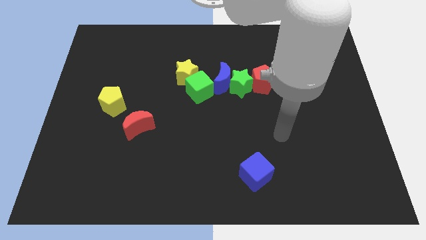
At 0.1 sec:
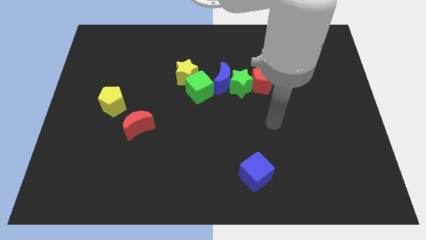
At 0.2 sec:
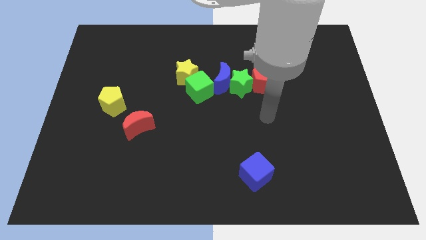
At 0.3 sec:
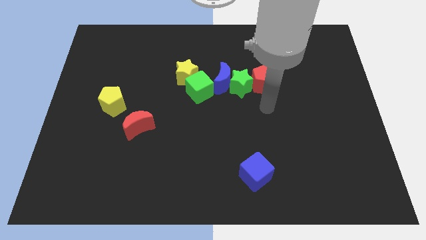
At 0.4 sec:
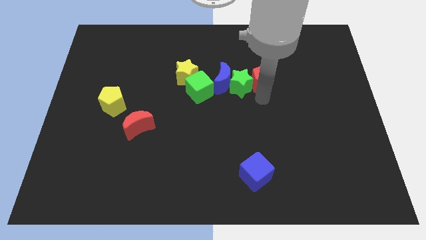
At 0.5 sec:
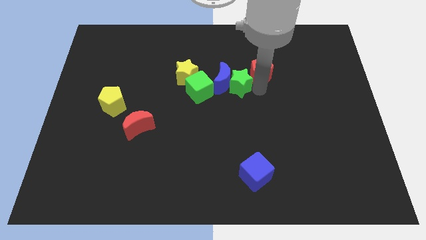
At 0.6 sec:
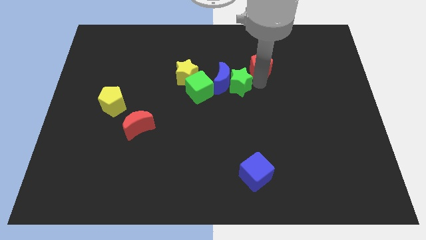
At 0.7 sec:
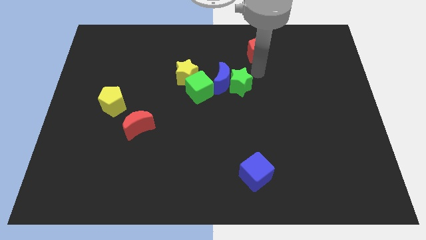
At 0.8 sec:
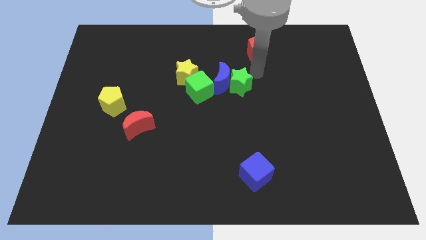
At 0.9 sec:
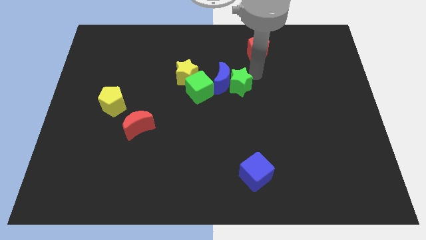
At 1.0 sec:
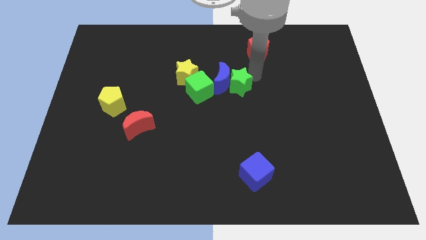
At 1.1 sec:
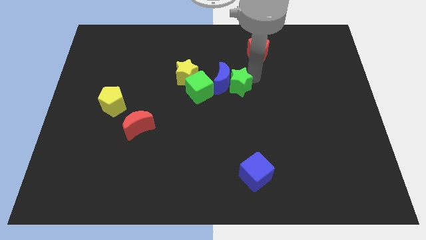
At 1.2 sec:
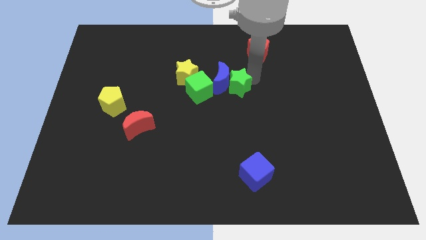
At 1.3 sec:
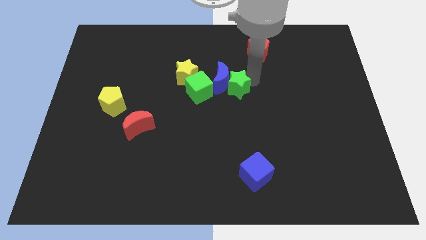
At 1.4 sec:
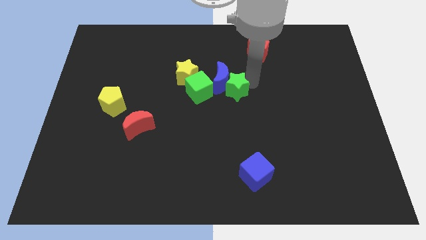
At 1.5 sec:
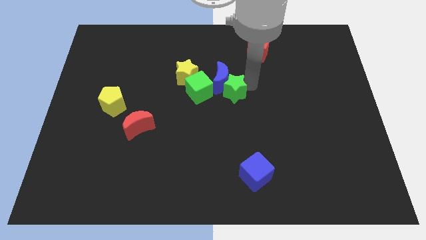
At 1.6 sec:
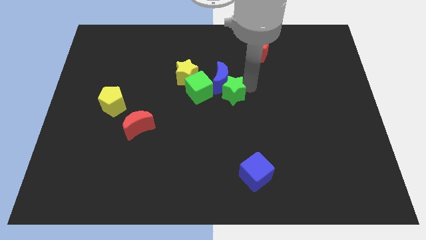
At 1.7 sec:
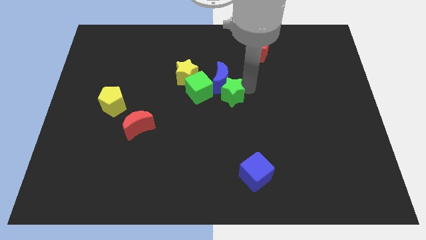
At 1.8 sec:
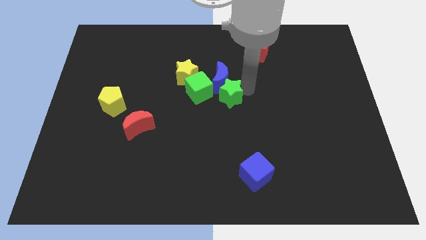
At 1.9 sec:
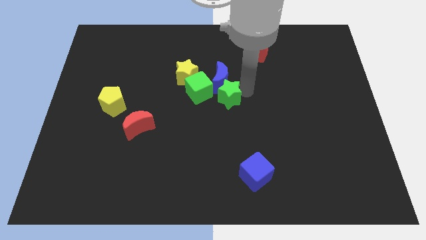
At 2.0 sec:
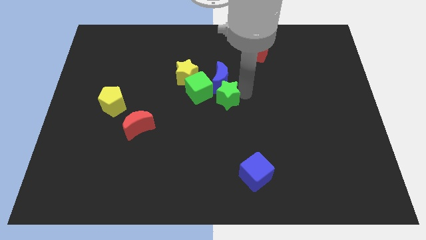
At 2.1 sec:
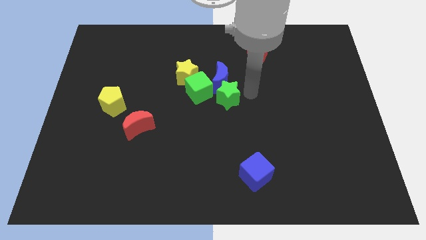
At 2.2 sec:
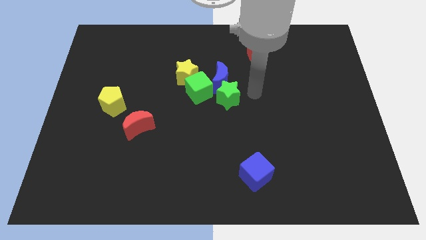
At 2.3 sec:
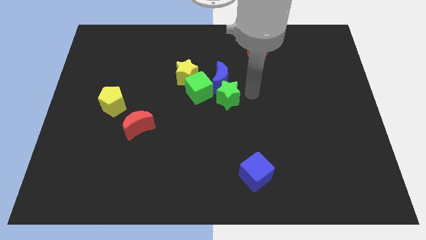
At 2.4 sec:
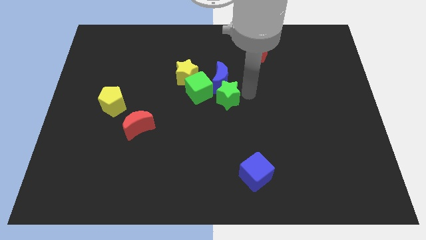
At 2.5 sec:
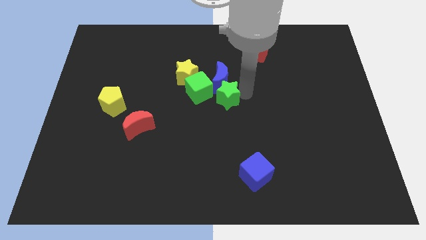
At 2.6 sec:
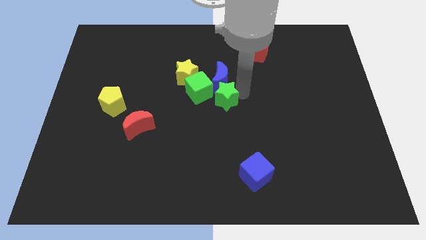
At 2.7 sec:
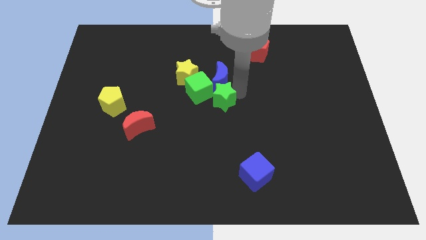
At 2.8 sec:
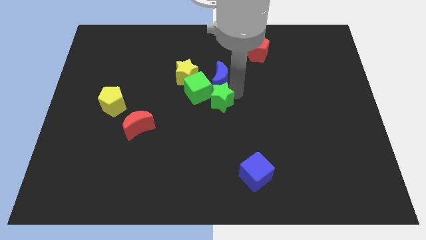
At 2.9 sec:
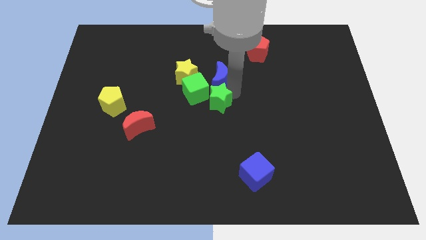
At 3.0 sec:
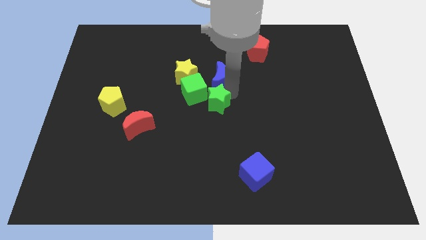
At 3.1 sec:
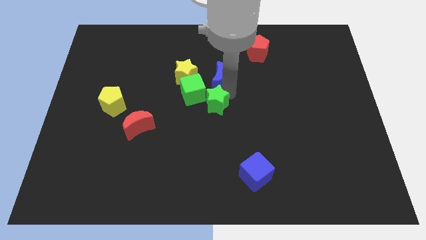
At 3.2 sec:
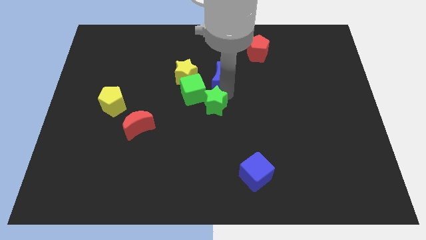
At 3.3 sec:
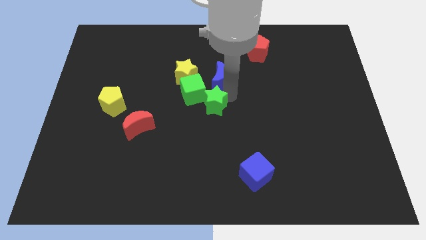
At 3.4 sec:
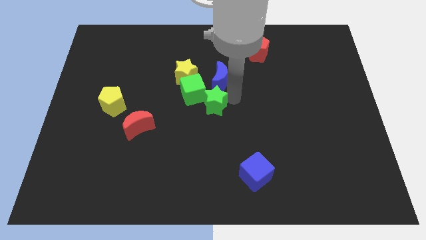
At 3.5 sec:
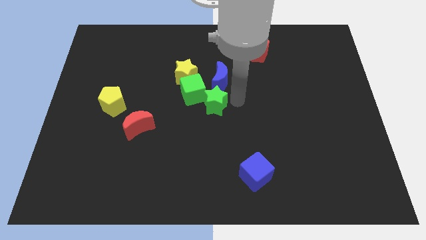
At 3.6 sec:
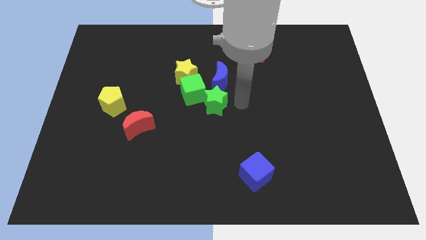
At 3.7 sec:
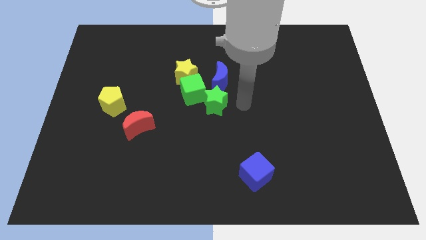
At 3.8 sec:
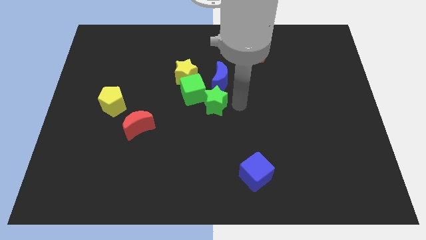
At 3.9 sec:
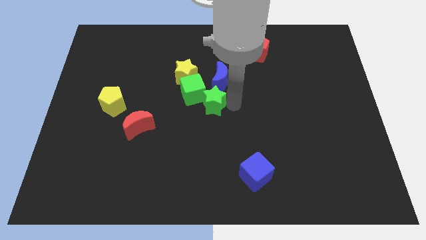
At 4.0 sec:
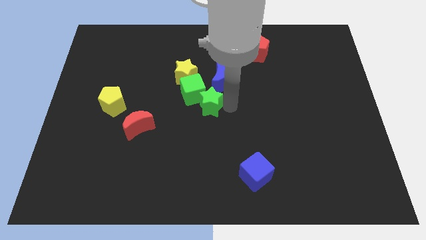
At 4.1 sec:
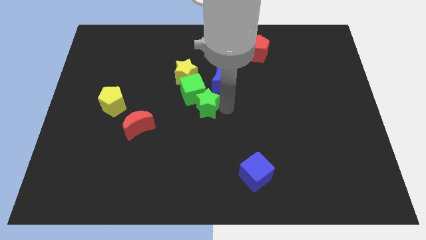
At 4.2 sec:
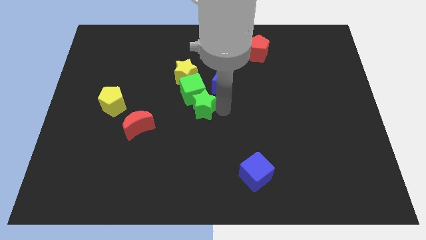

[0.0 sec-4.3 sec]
slightly move the green star left

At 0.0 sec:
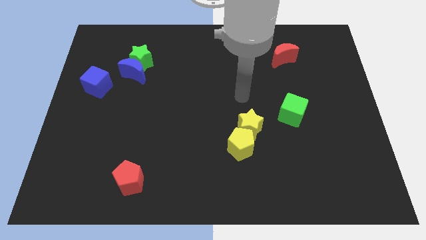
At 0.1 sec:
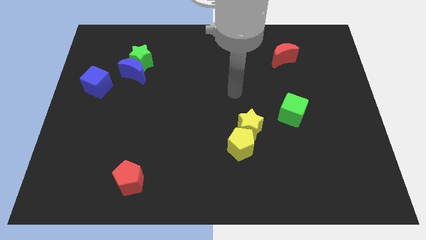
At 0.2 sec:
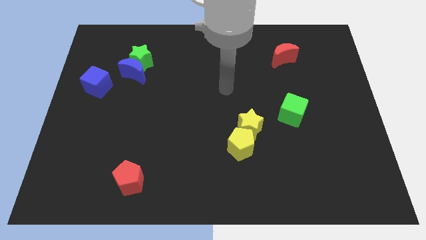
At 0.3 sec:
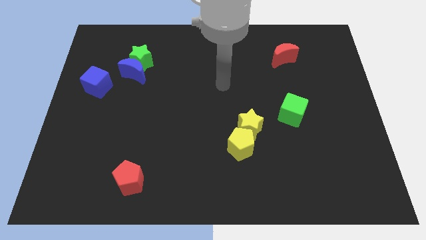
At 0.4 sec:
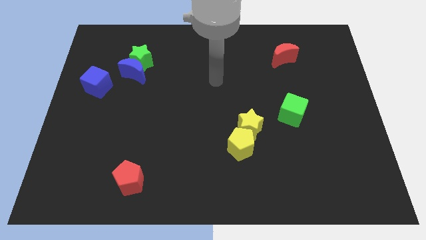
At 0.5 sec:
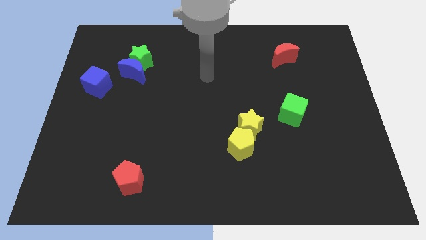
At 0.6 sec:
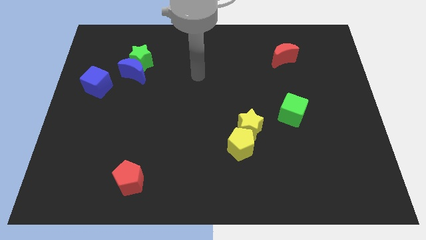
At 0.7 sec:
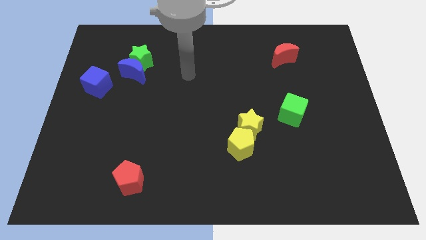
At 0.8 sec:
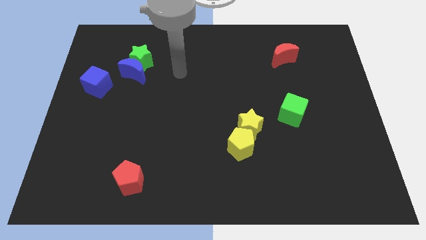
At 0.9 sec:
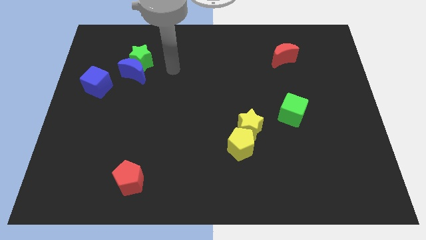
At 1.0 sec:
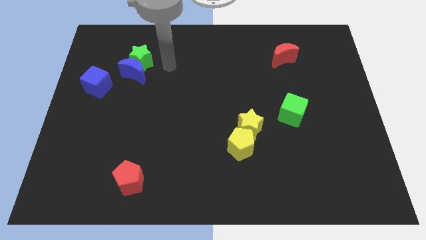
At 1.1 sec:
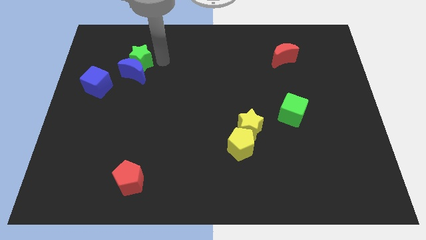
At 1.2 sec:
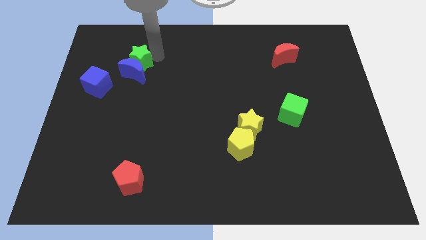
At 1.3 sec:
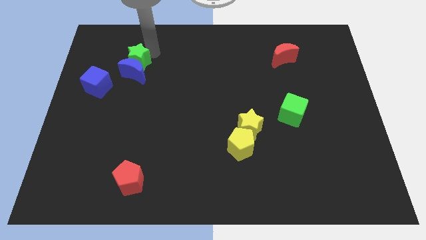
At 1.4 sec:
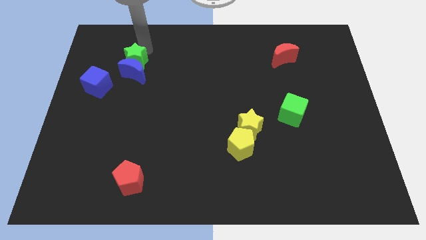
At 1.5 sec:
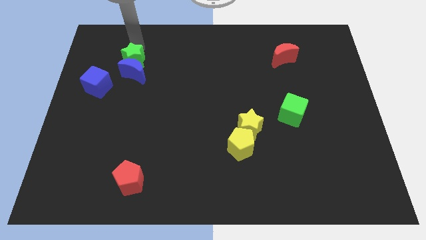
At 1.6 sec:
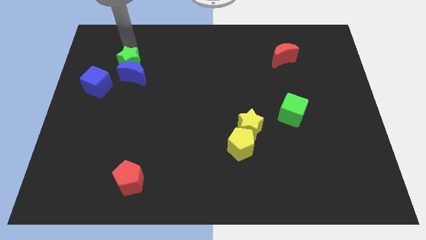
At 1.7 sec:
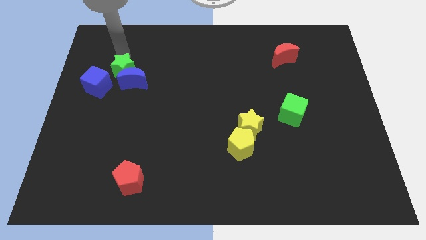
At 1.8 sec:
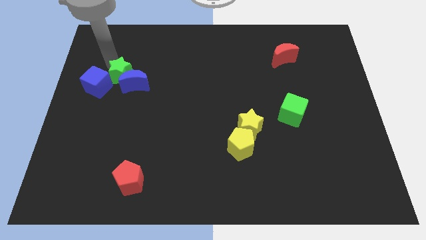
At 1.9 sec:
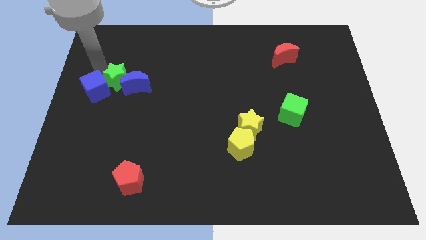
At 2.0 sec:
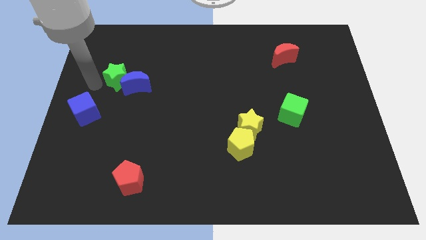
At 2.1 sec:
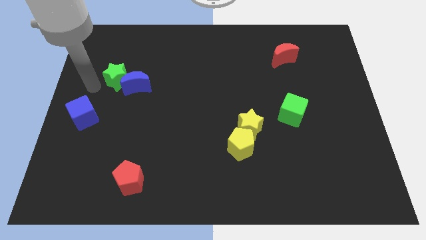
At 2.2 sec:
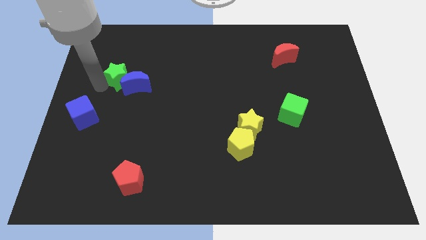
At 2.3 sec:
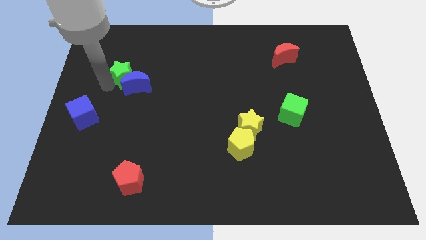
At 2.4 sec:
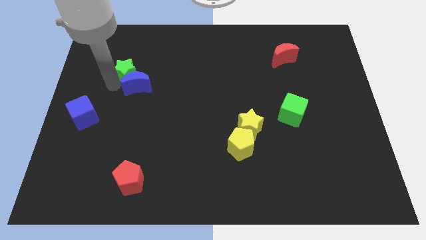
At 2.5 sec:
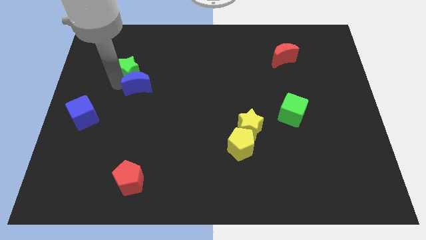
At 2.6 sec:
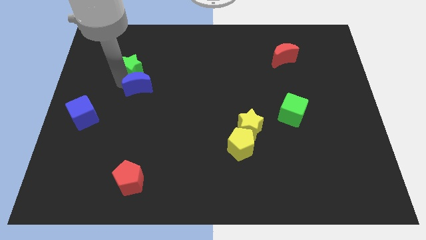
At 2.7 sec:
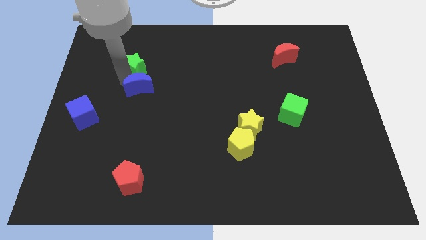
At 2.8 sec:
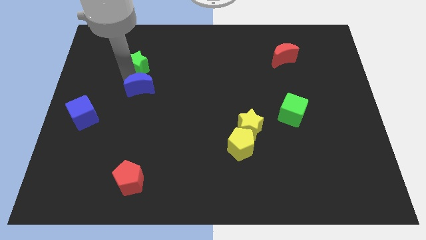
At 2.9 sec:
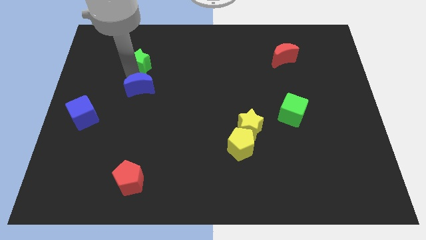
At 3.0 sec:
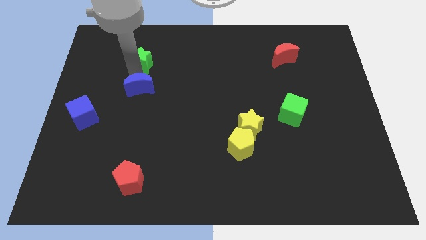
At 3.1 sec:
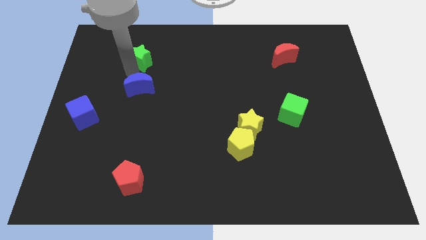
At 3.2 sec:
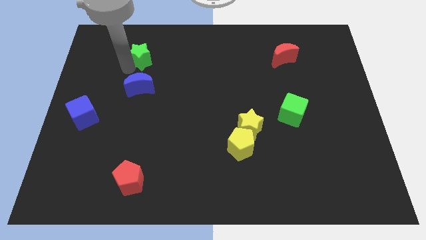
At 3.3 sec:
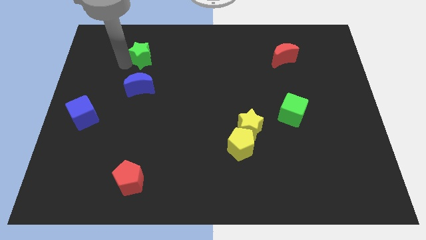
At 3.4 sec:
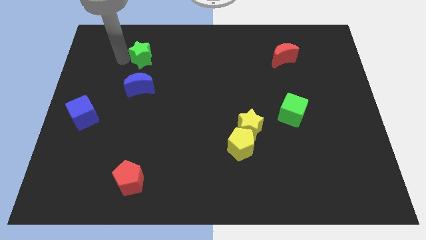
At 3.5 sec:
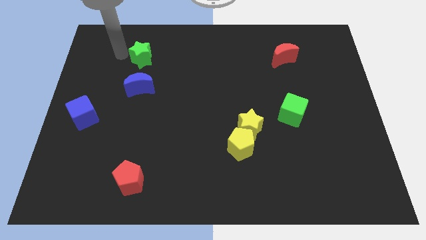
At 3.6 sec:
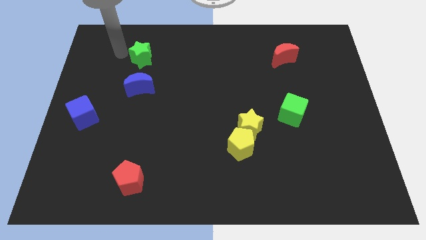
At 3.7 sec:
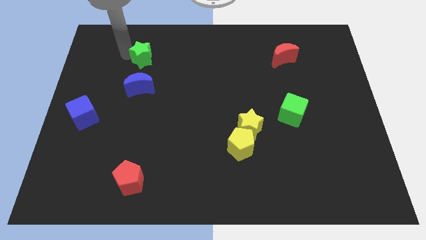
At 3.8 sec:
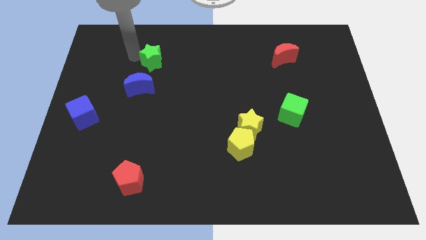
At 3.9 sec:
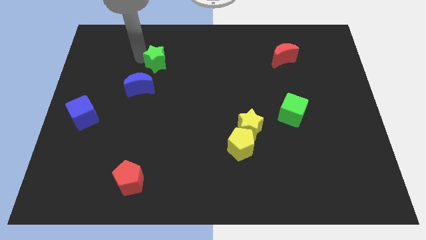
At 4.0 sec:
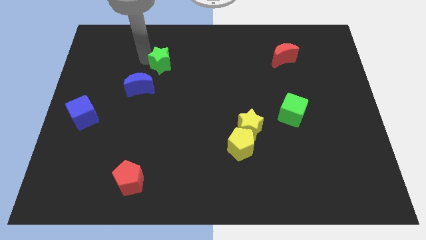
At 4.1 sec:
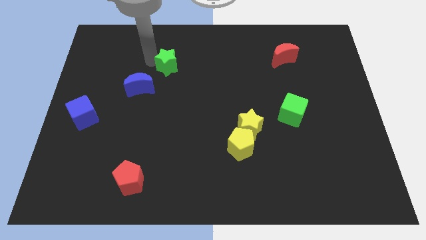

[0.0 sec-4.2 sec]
move the green star somewhat to the right

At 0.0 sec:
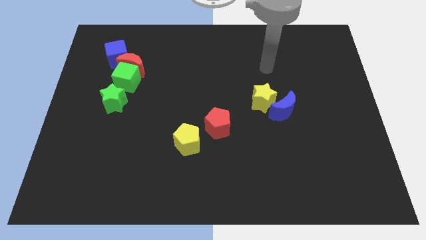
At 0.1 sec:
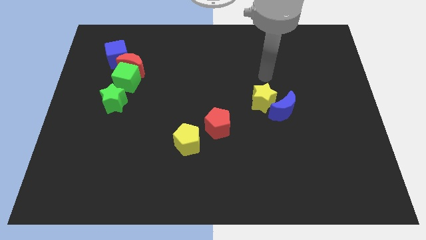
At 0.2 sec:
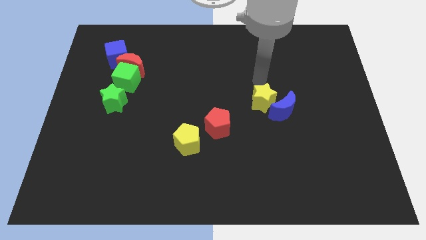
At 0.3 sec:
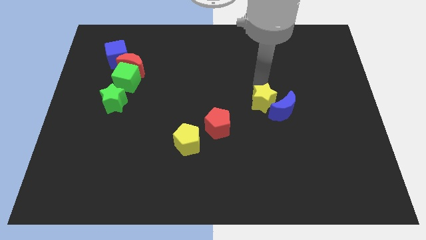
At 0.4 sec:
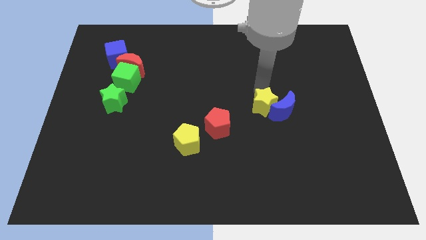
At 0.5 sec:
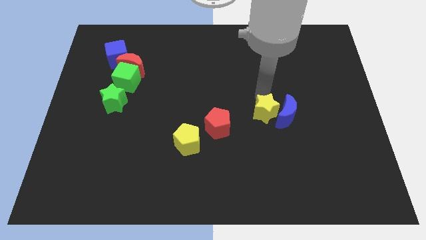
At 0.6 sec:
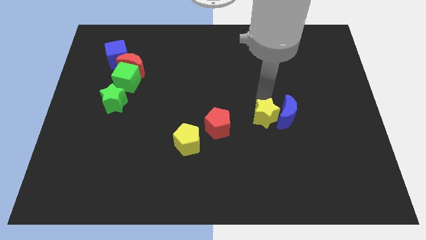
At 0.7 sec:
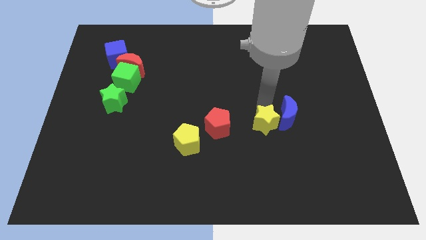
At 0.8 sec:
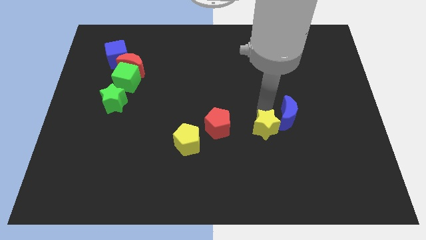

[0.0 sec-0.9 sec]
push the yellow star a bit downwards
